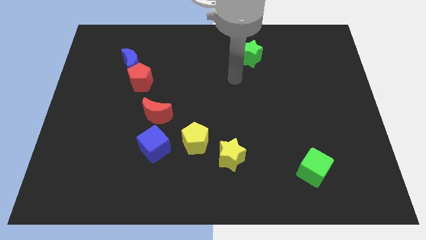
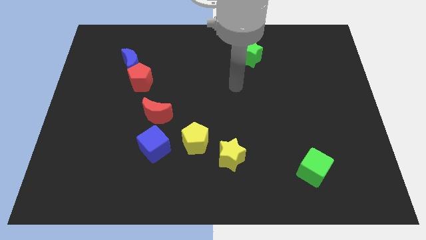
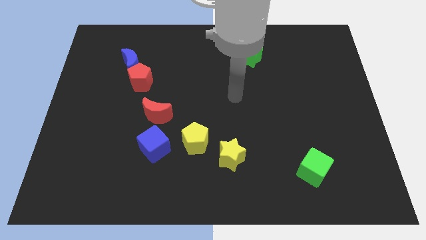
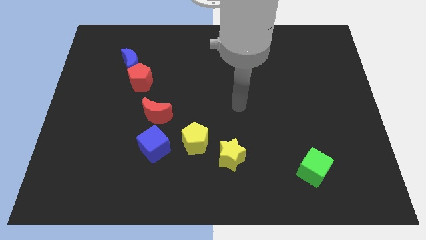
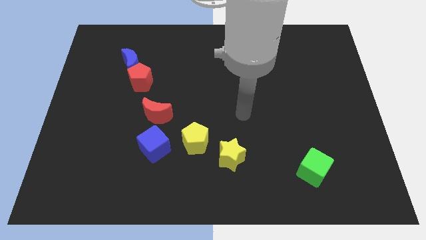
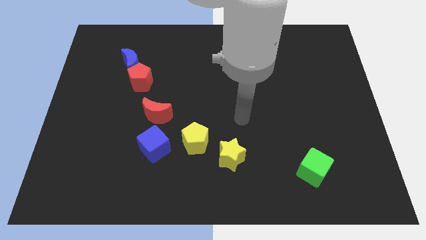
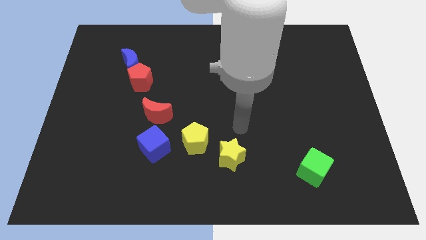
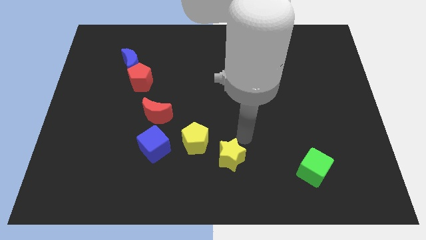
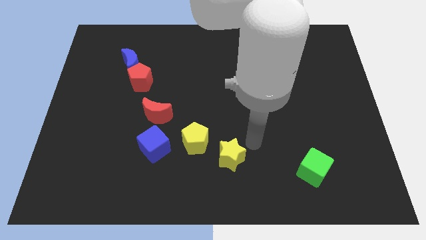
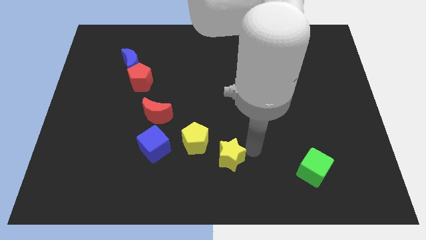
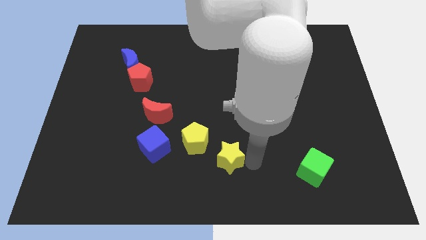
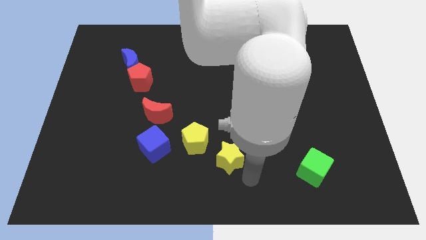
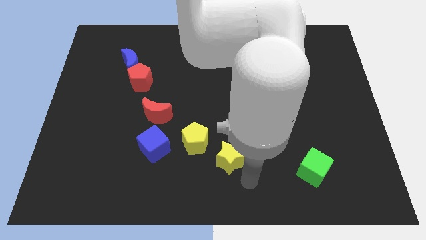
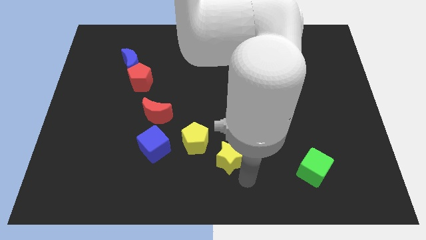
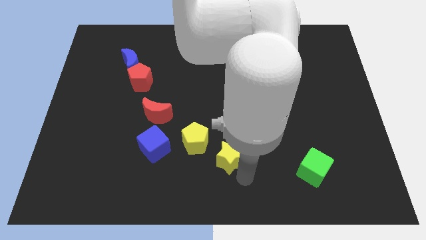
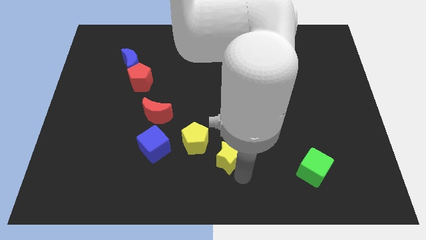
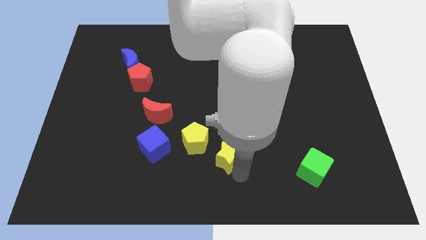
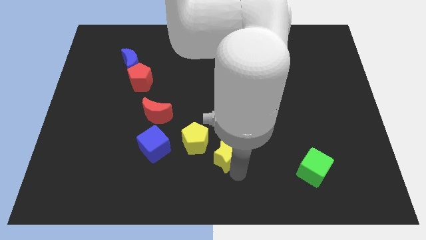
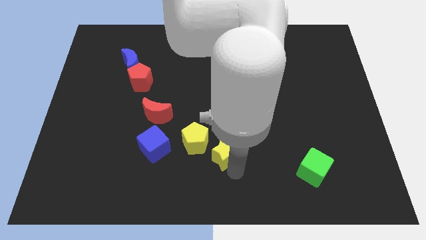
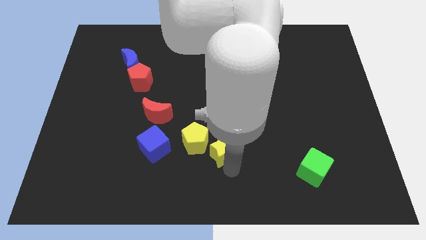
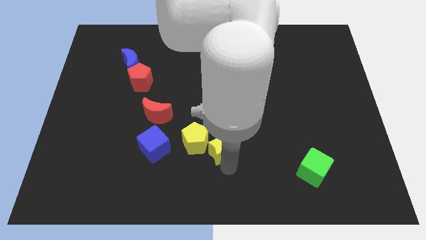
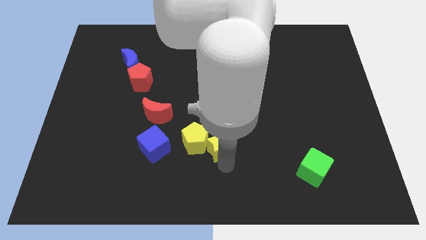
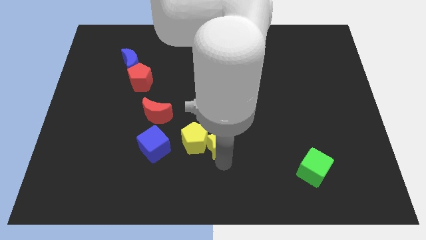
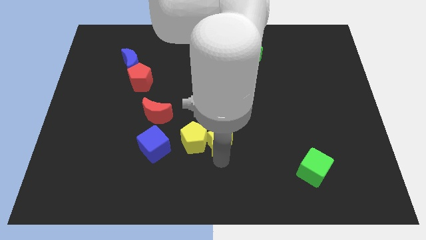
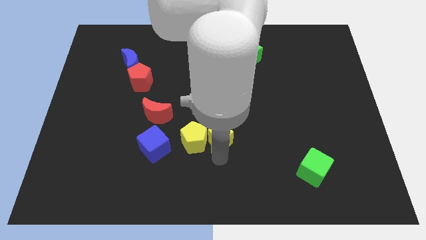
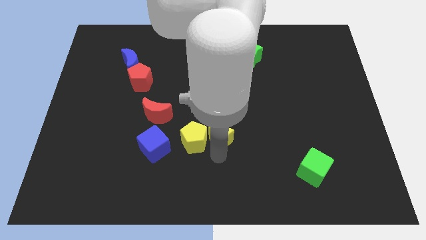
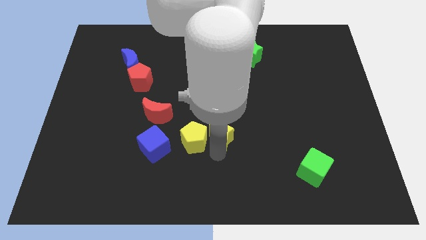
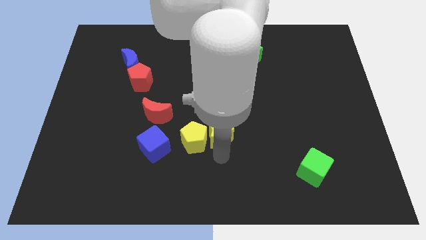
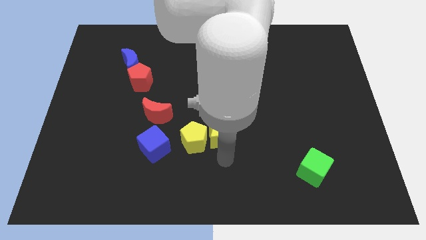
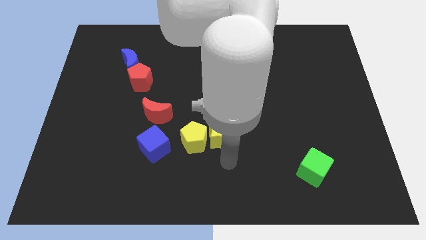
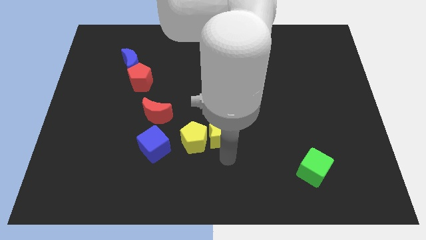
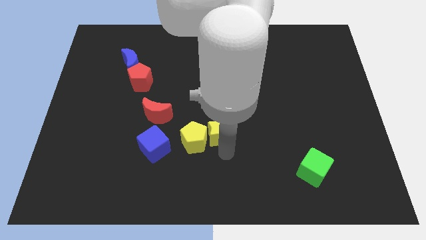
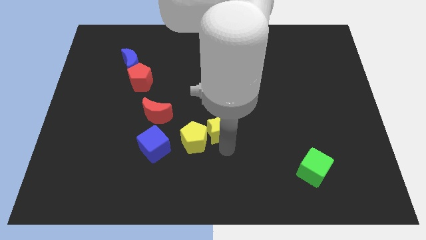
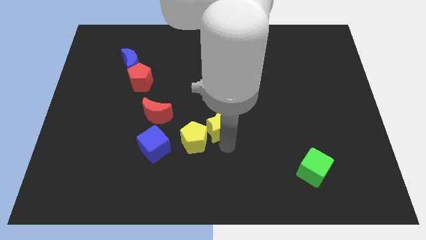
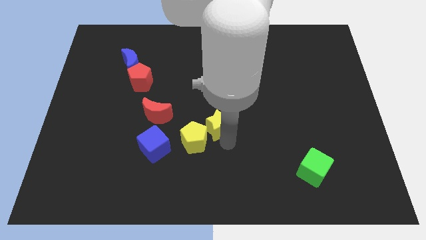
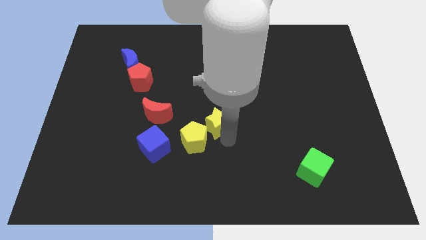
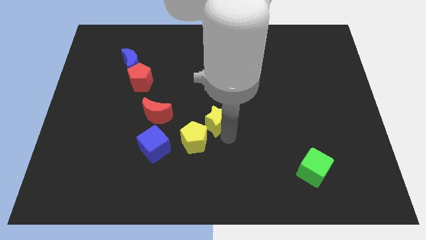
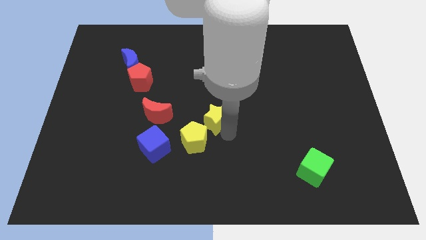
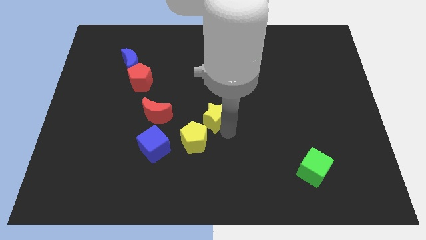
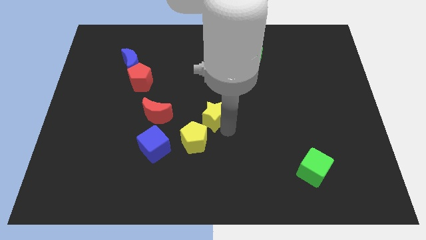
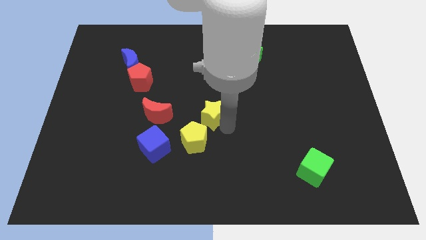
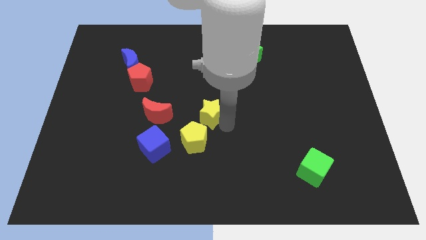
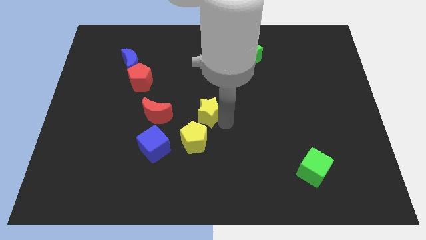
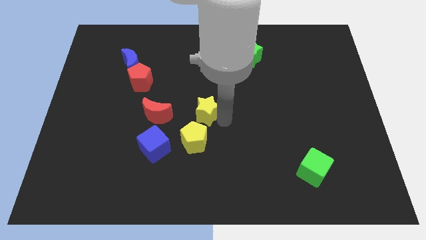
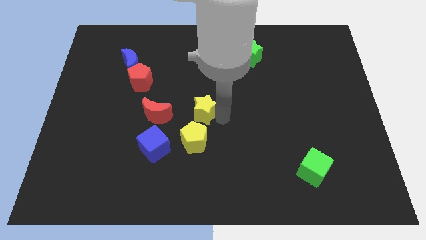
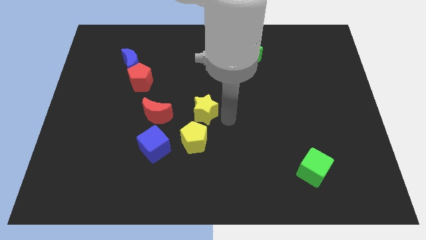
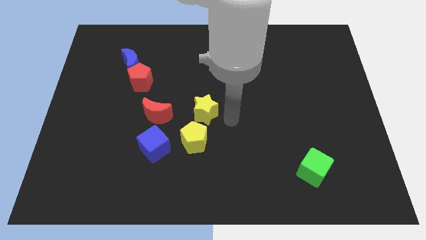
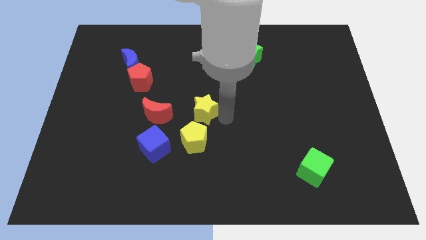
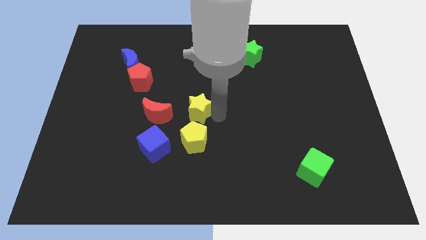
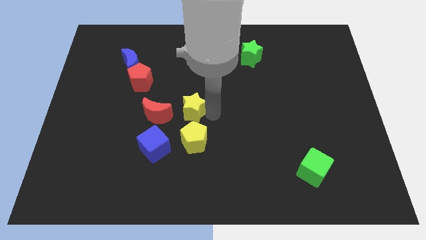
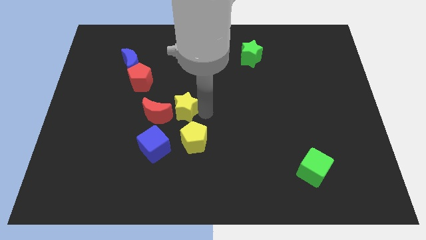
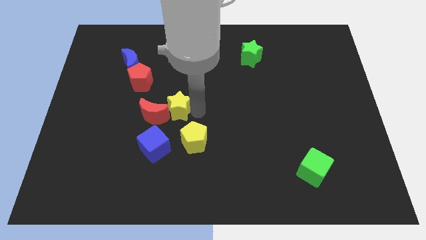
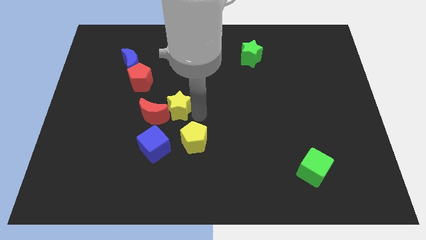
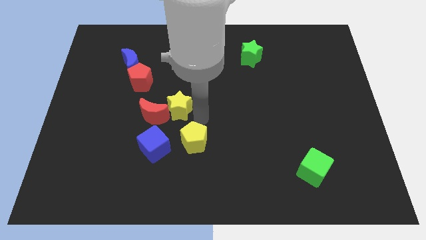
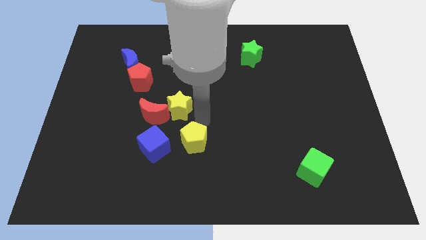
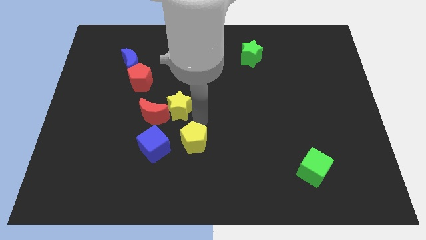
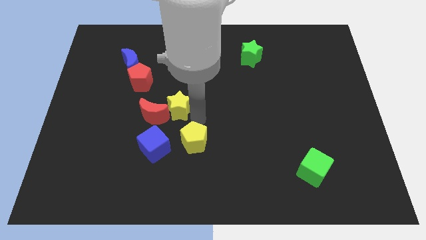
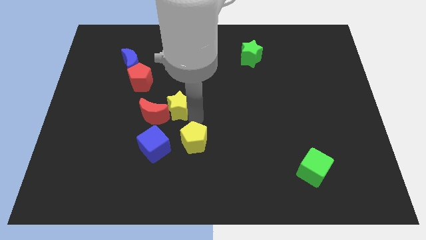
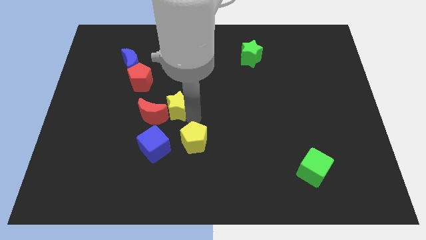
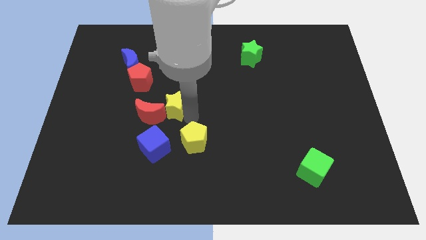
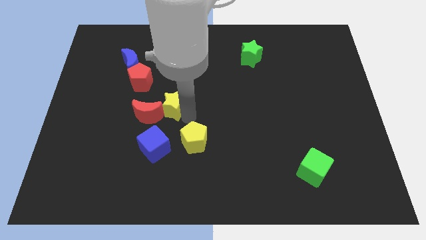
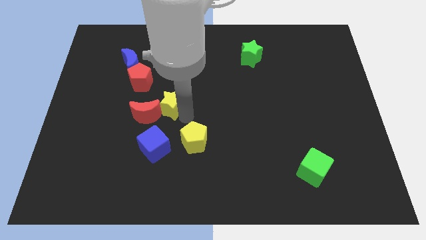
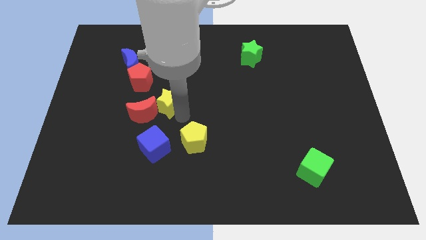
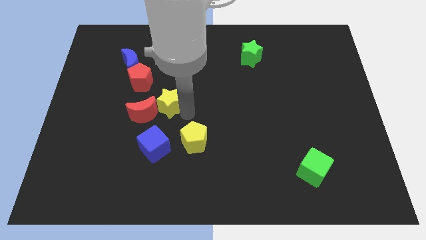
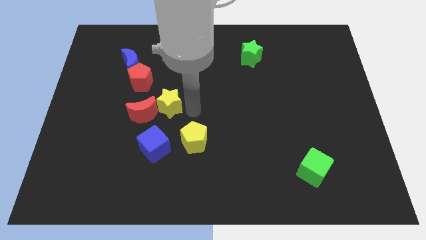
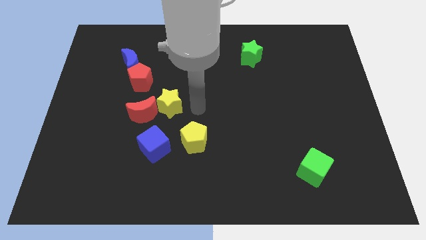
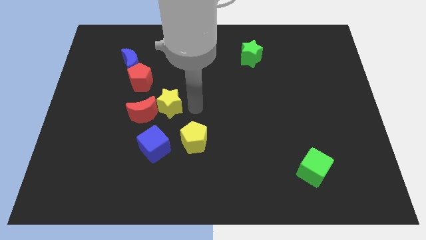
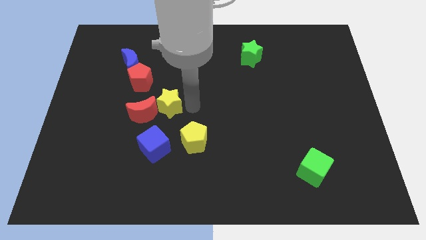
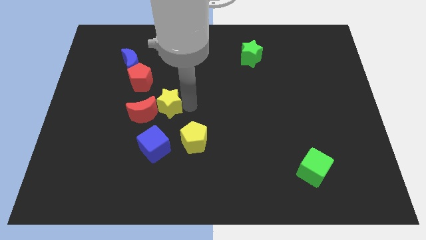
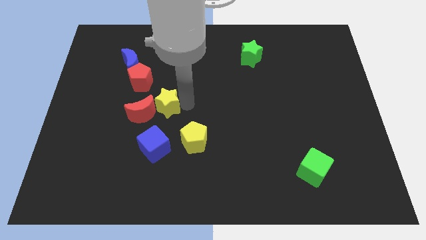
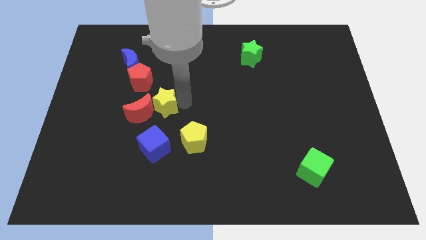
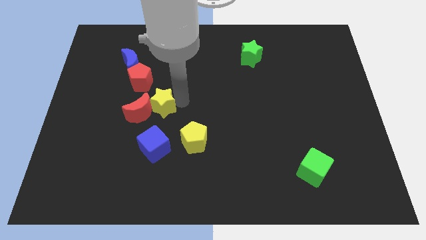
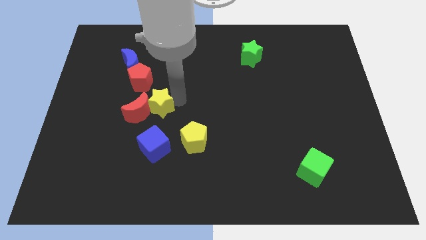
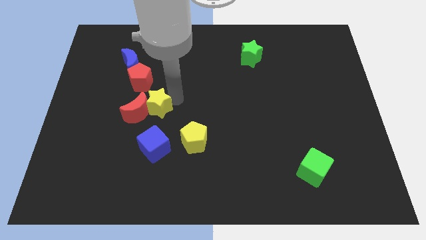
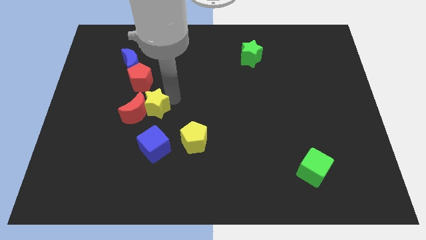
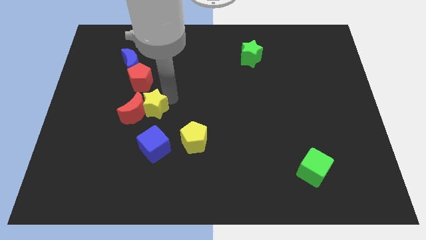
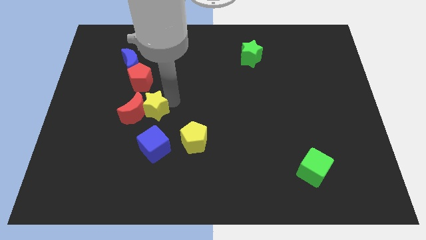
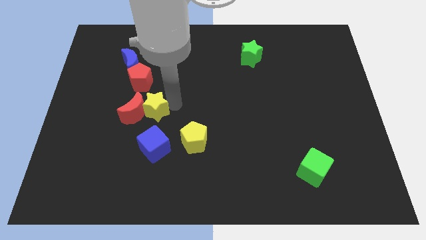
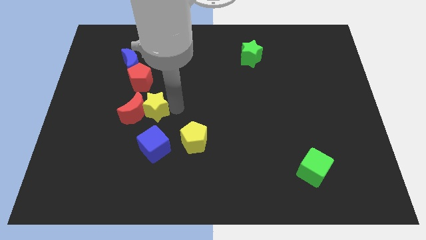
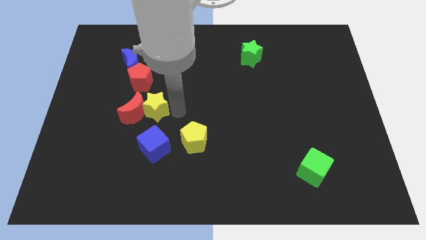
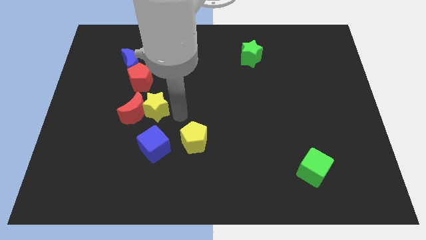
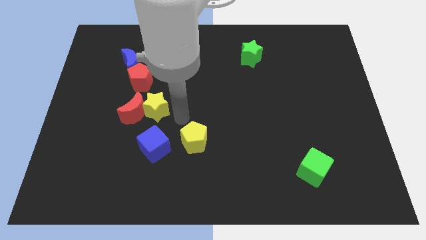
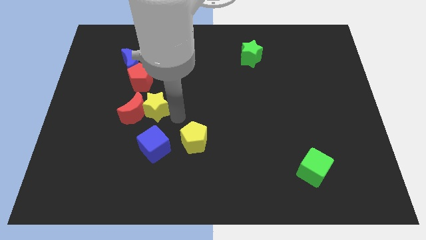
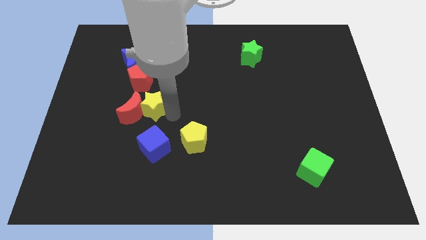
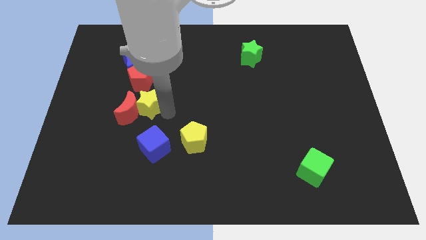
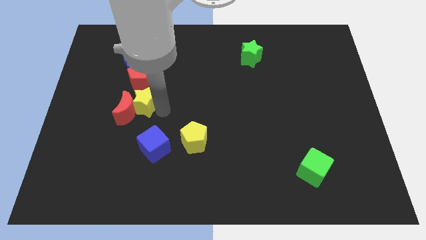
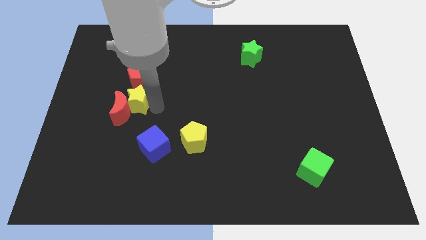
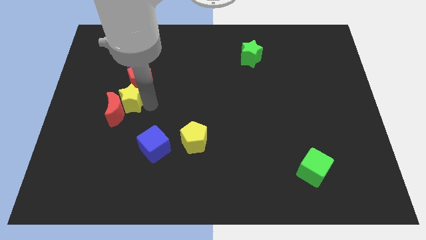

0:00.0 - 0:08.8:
push the yellow star diagonally down and to the left of the red pentagon
